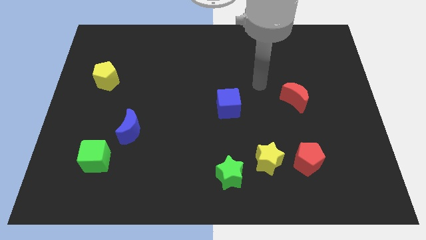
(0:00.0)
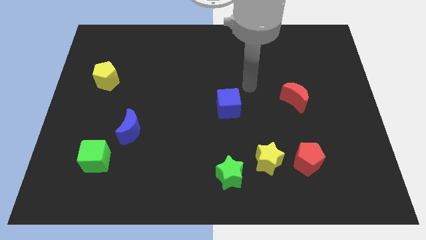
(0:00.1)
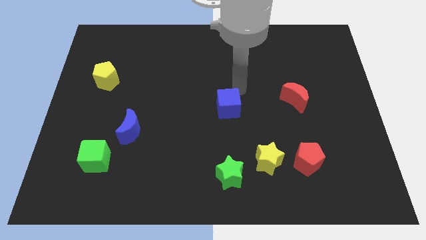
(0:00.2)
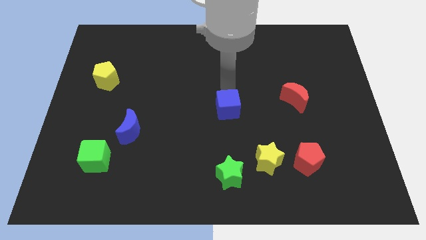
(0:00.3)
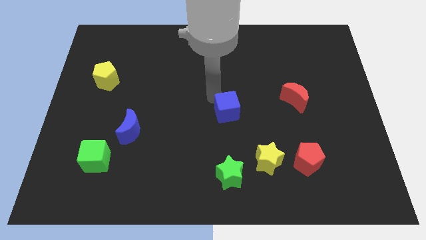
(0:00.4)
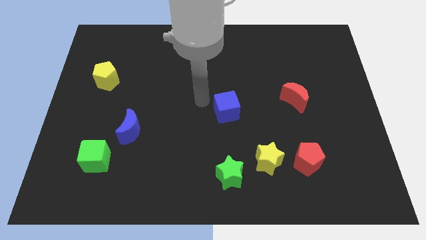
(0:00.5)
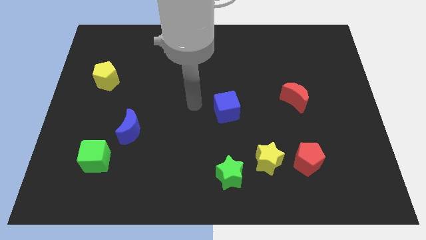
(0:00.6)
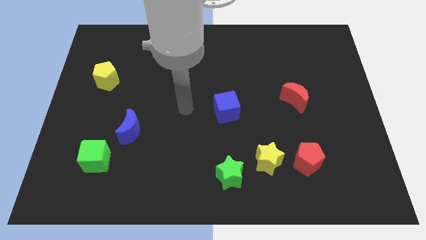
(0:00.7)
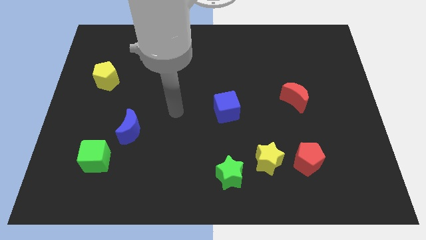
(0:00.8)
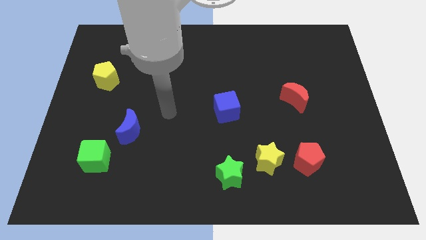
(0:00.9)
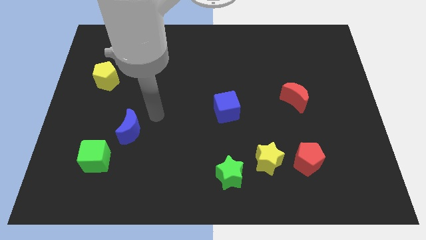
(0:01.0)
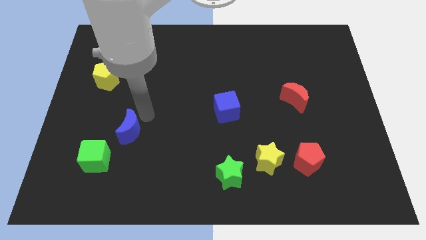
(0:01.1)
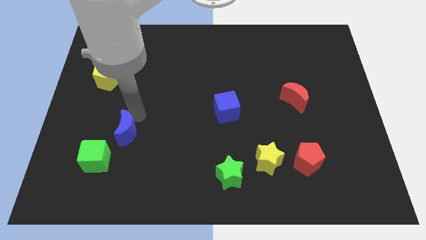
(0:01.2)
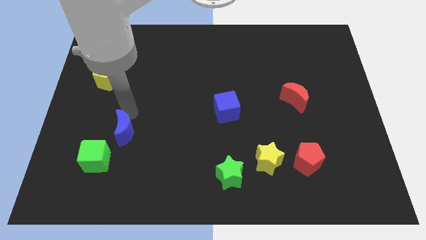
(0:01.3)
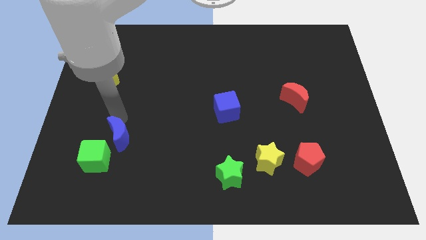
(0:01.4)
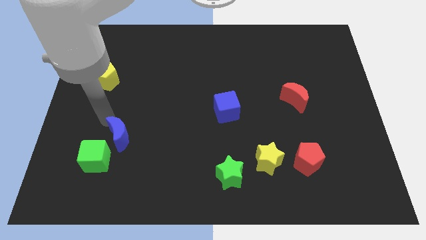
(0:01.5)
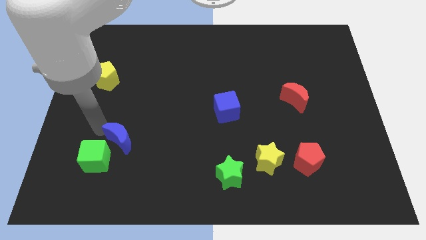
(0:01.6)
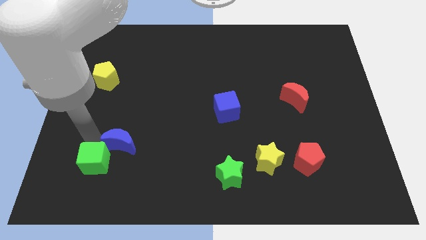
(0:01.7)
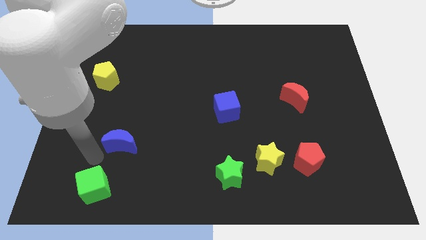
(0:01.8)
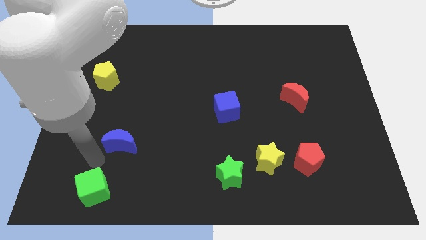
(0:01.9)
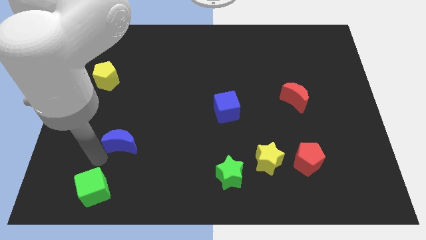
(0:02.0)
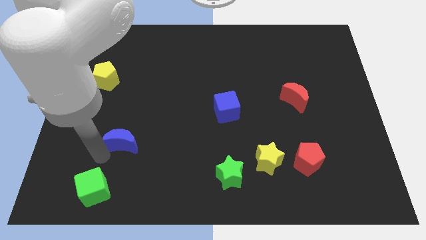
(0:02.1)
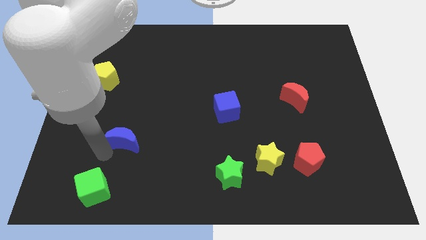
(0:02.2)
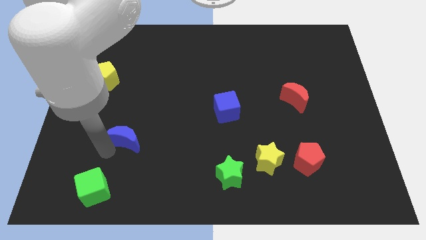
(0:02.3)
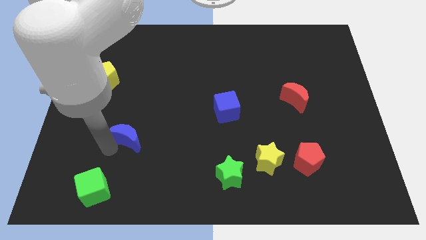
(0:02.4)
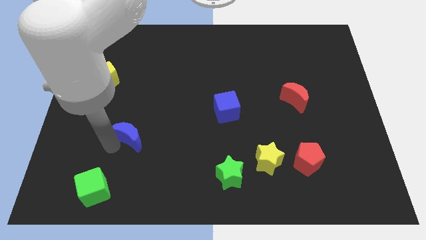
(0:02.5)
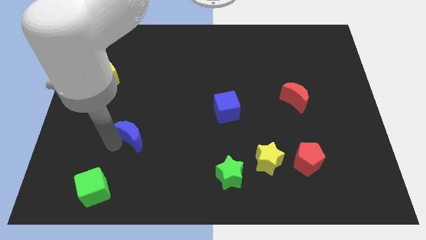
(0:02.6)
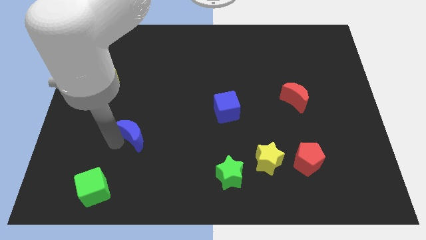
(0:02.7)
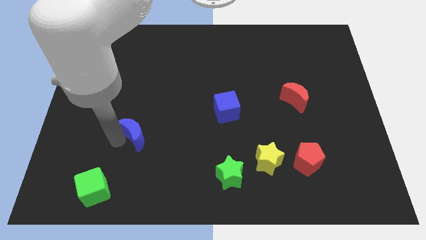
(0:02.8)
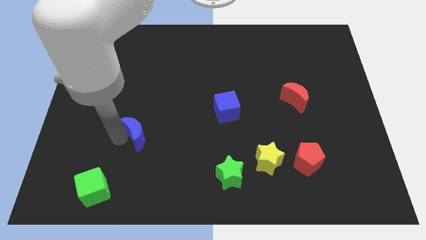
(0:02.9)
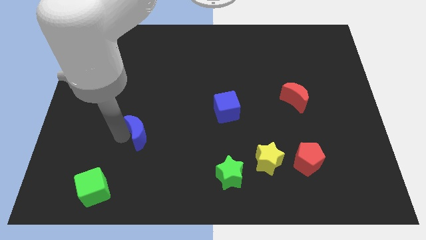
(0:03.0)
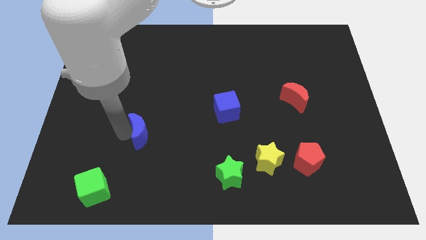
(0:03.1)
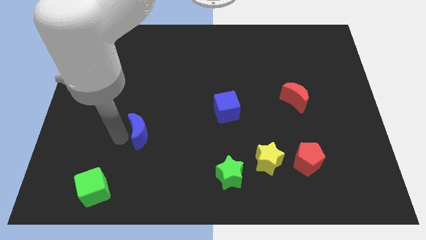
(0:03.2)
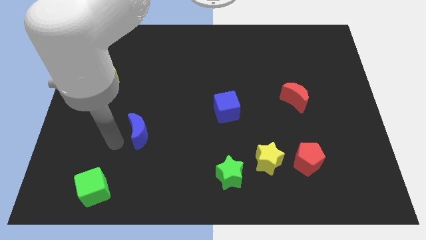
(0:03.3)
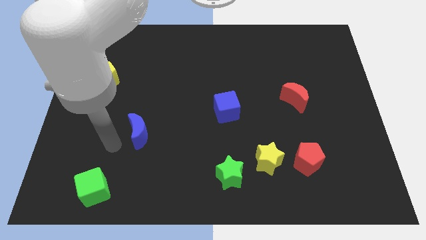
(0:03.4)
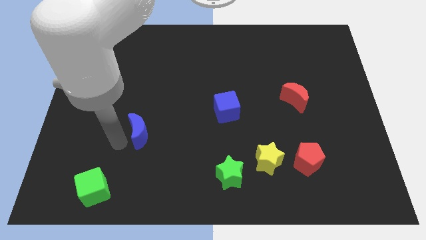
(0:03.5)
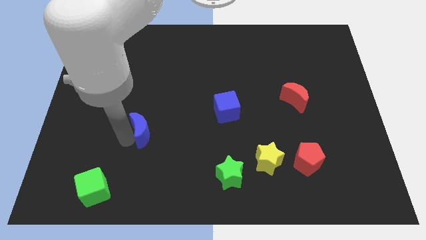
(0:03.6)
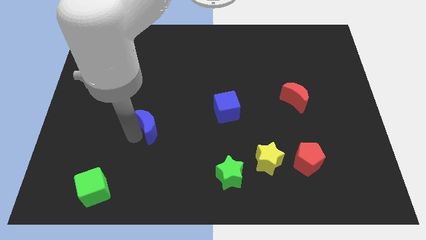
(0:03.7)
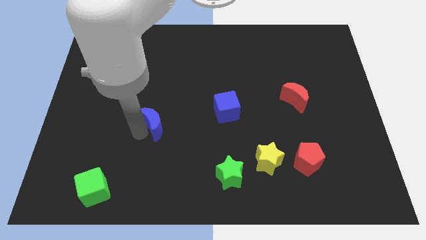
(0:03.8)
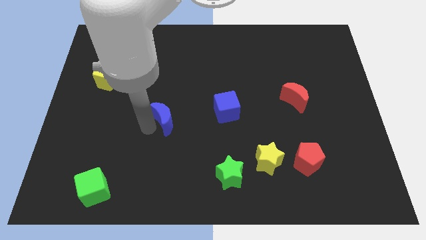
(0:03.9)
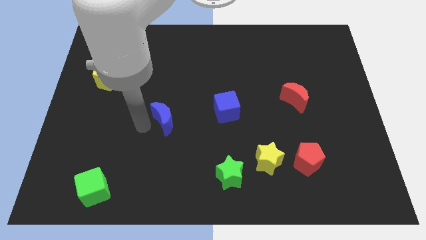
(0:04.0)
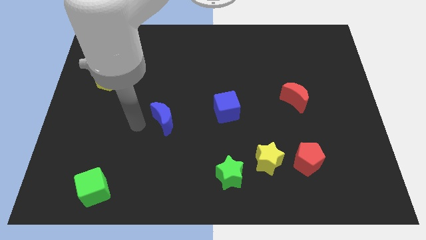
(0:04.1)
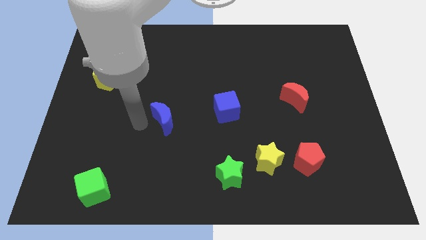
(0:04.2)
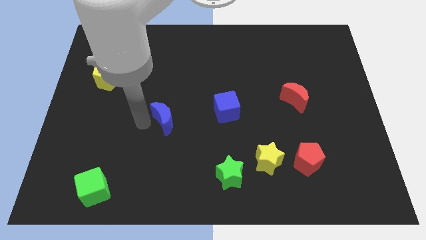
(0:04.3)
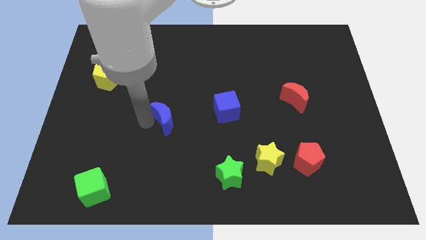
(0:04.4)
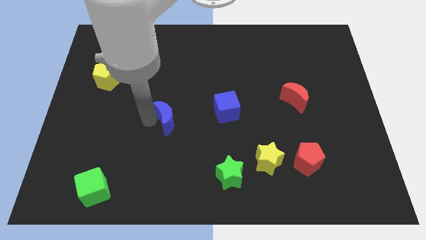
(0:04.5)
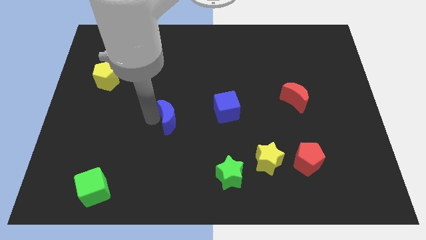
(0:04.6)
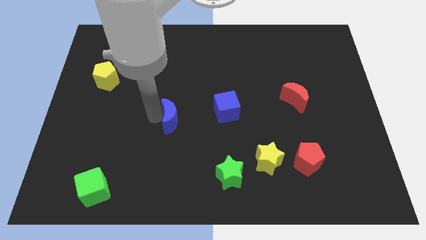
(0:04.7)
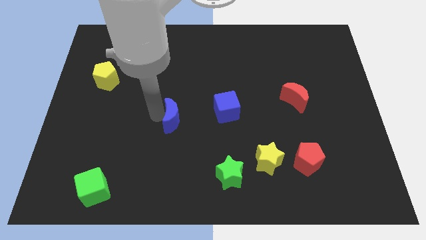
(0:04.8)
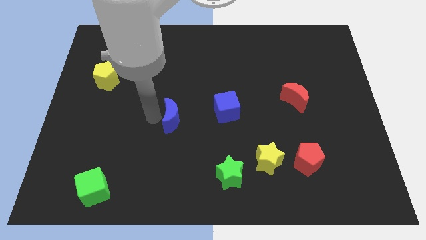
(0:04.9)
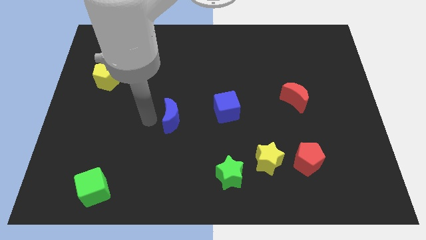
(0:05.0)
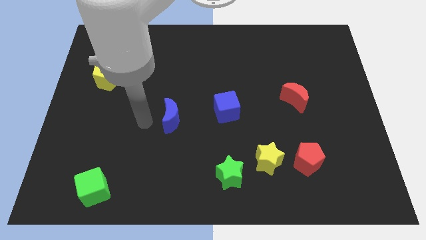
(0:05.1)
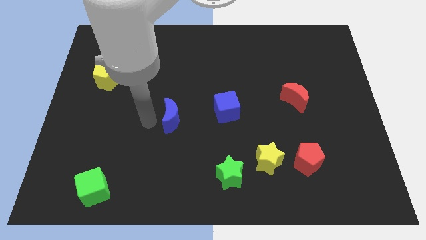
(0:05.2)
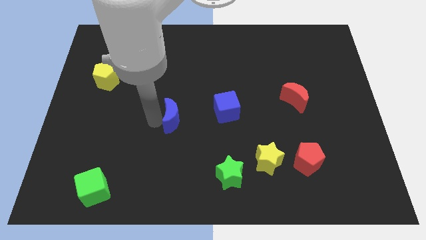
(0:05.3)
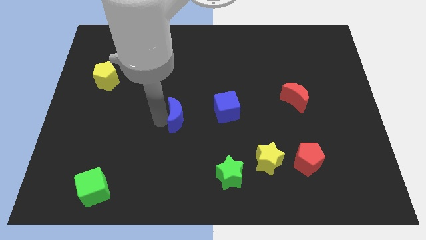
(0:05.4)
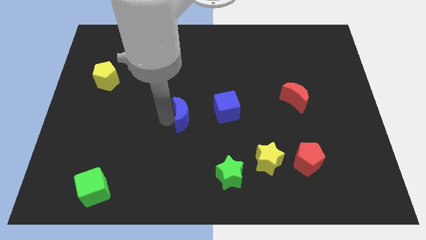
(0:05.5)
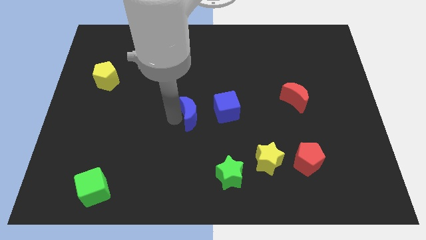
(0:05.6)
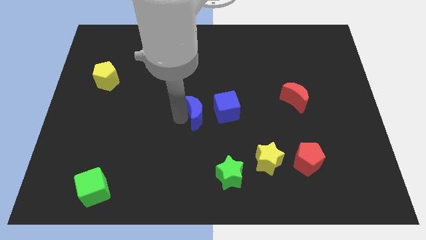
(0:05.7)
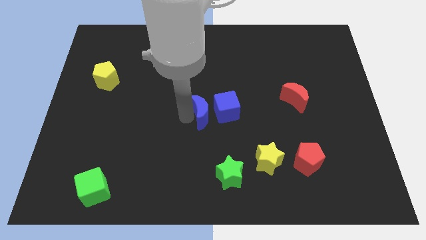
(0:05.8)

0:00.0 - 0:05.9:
slide the blue moon close to the blue cube

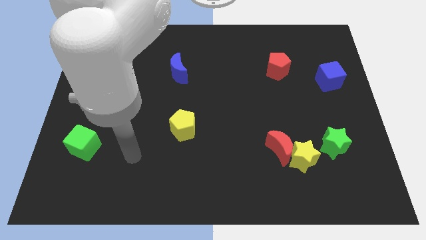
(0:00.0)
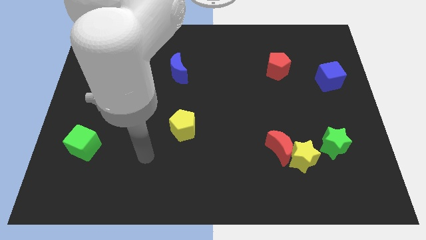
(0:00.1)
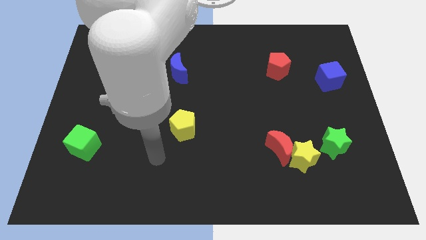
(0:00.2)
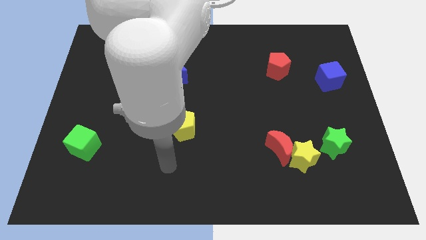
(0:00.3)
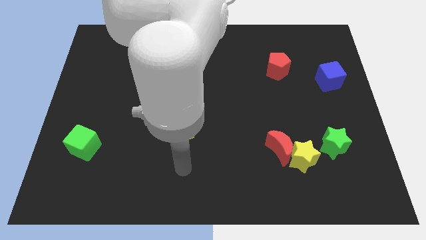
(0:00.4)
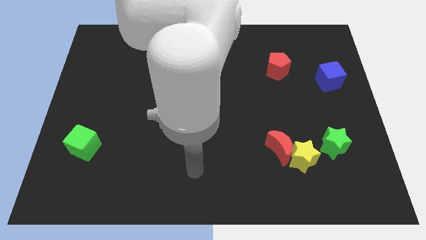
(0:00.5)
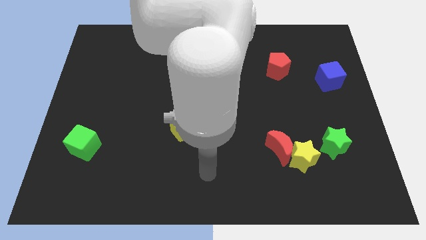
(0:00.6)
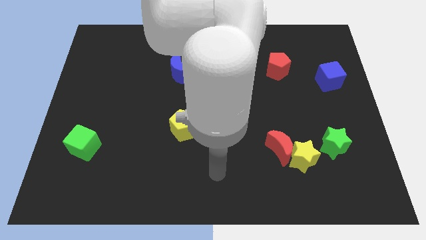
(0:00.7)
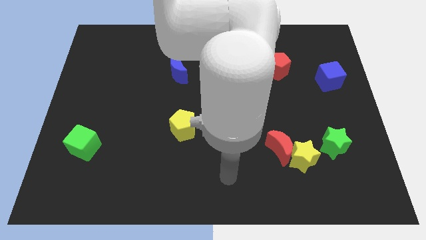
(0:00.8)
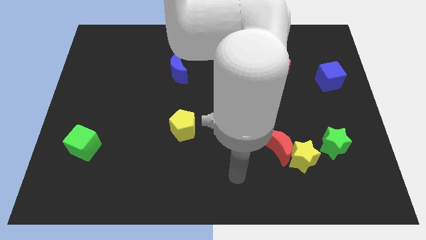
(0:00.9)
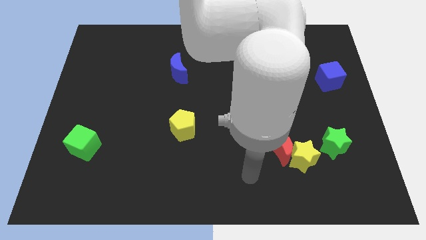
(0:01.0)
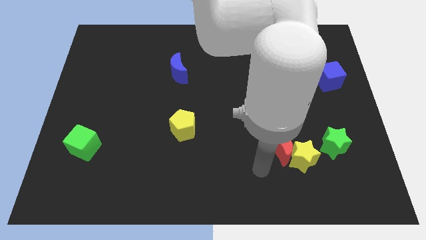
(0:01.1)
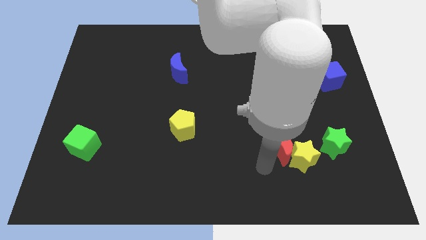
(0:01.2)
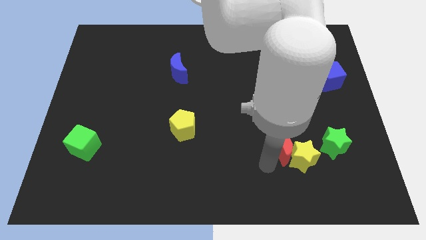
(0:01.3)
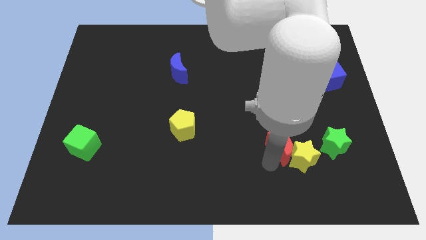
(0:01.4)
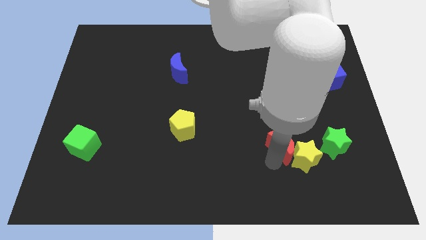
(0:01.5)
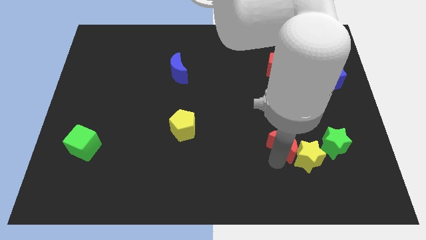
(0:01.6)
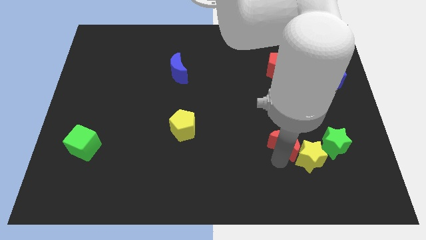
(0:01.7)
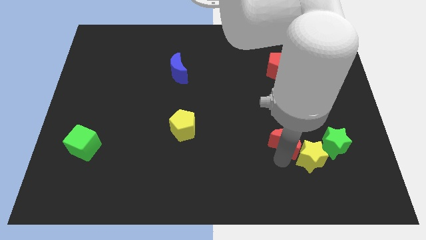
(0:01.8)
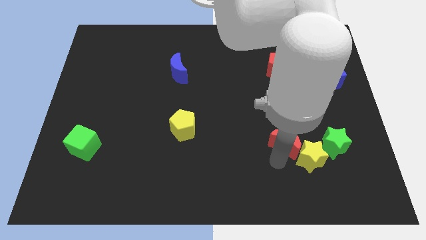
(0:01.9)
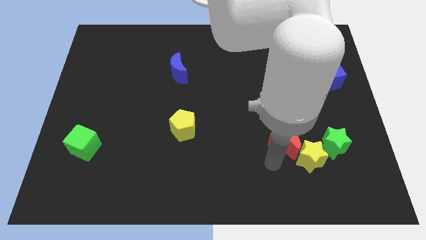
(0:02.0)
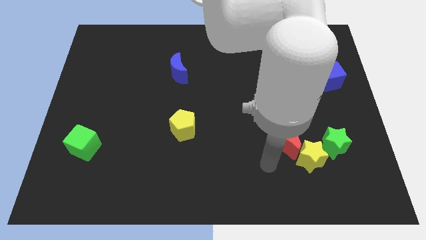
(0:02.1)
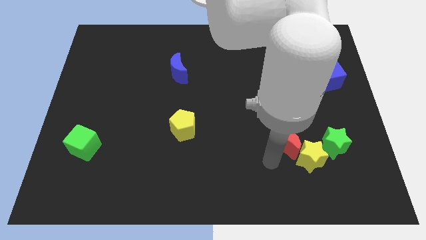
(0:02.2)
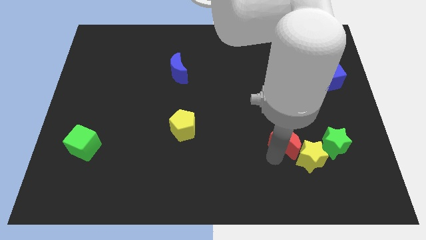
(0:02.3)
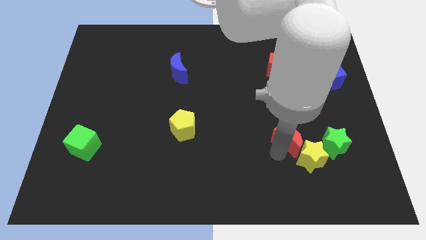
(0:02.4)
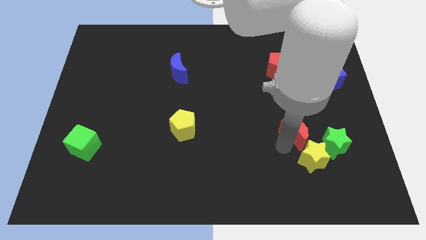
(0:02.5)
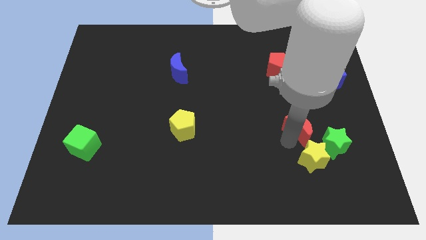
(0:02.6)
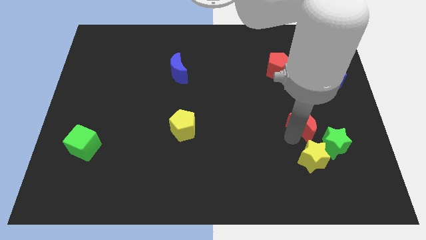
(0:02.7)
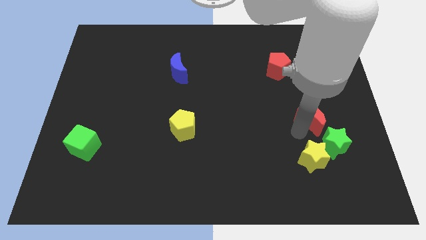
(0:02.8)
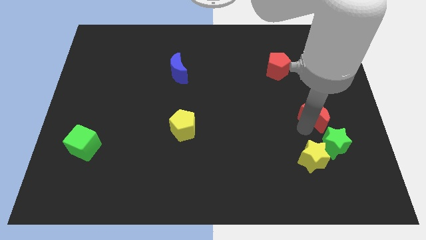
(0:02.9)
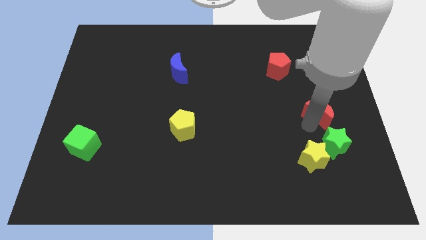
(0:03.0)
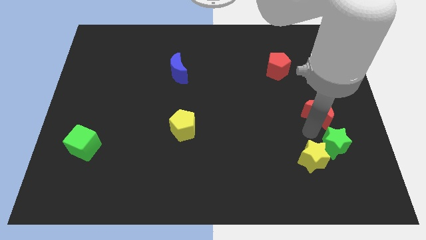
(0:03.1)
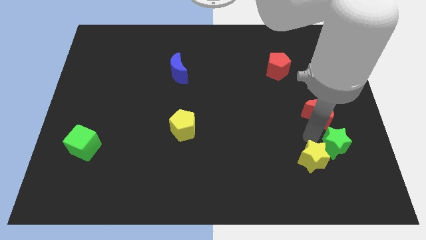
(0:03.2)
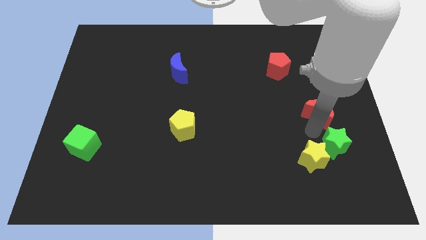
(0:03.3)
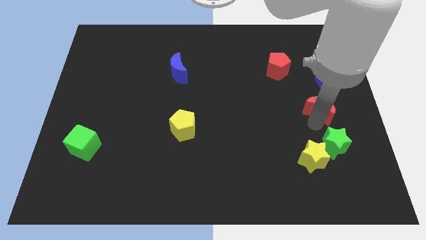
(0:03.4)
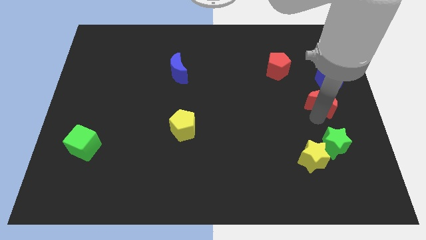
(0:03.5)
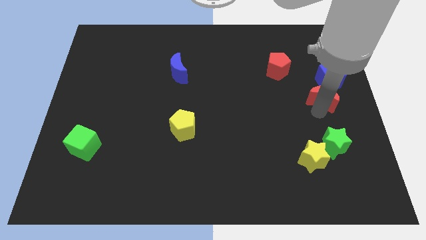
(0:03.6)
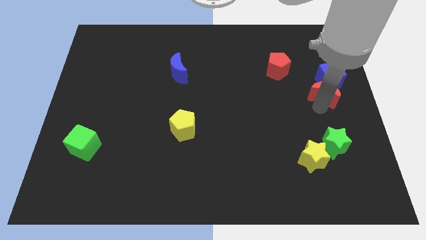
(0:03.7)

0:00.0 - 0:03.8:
put the red moon to the blue cube
